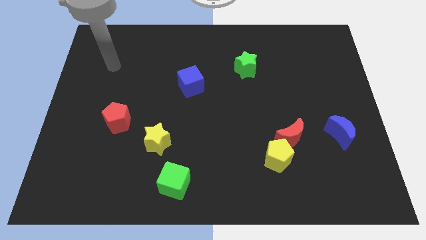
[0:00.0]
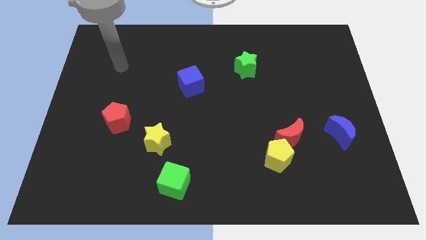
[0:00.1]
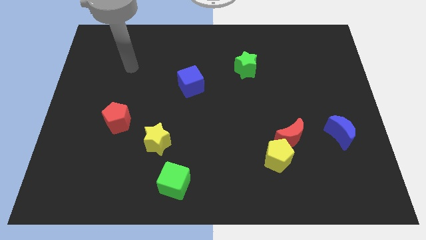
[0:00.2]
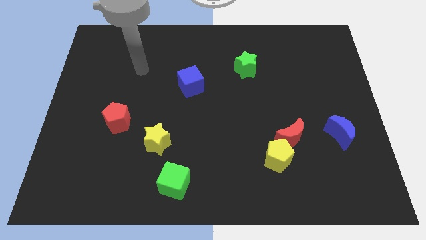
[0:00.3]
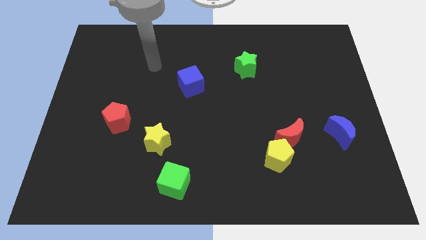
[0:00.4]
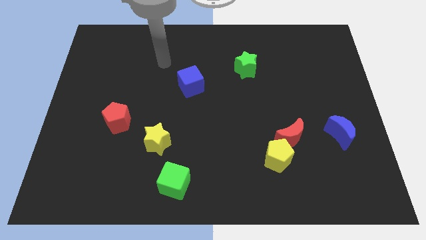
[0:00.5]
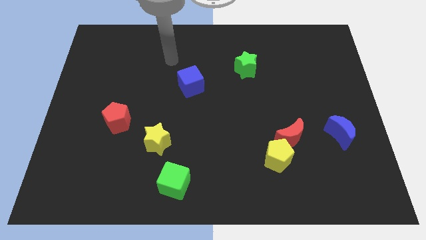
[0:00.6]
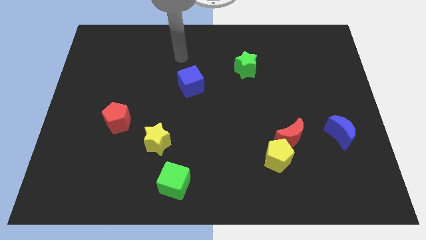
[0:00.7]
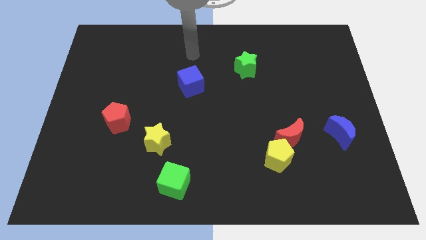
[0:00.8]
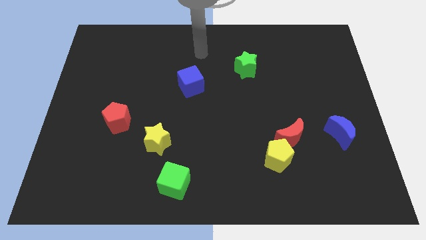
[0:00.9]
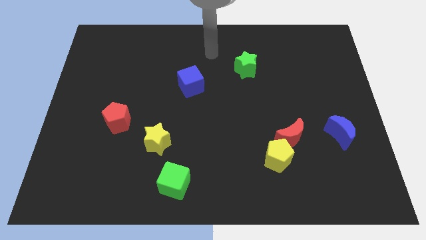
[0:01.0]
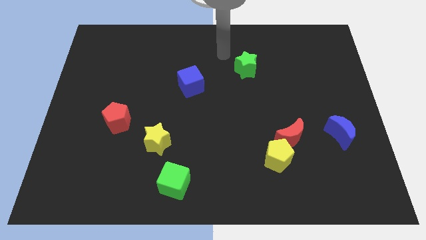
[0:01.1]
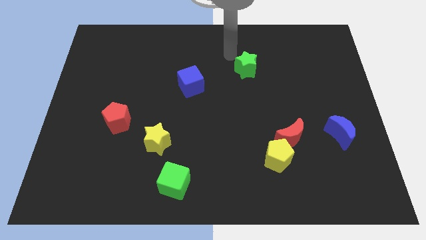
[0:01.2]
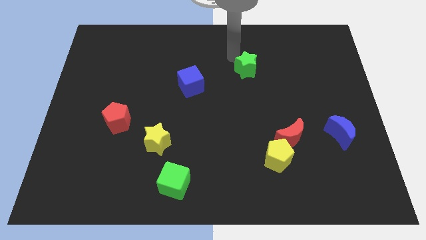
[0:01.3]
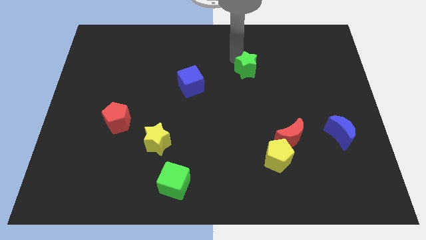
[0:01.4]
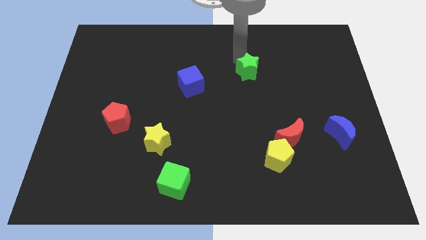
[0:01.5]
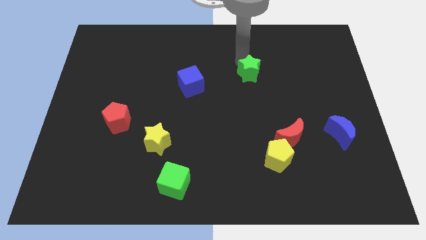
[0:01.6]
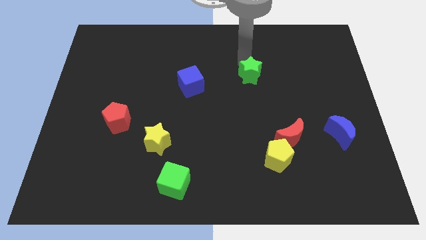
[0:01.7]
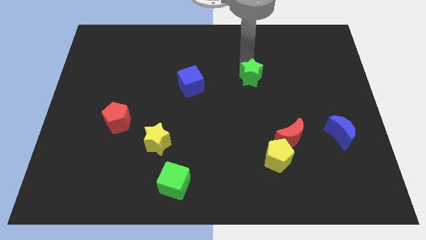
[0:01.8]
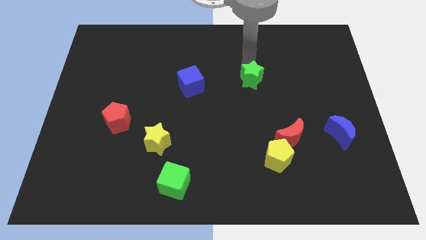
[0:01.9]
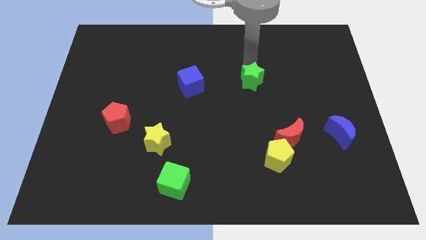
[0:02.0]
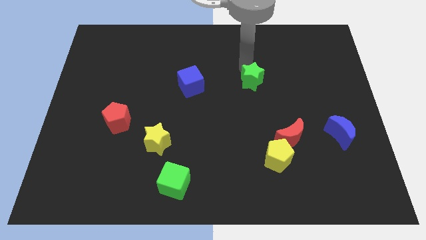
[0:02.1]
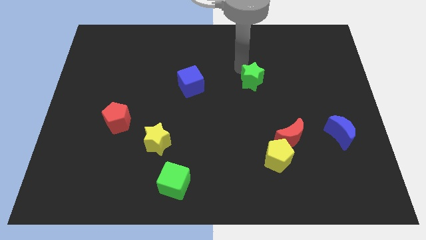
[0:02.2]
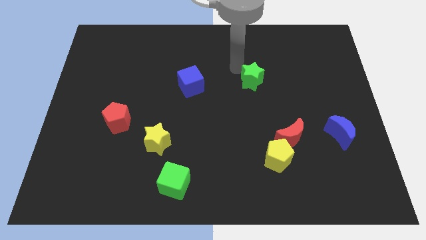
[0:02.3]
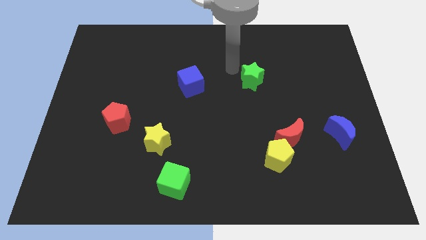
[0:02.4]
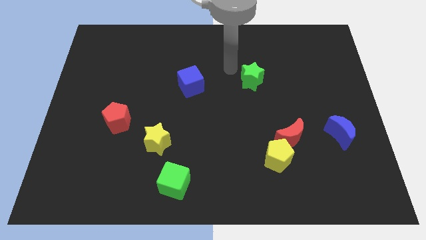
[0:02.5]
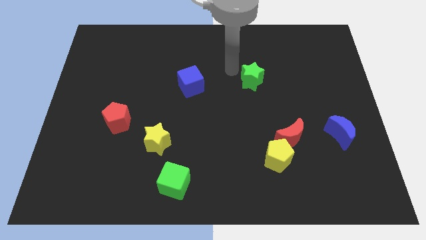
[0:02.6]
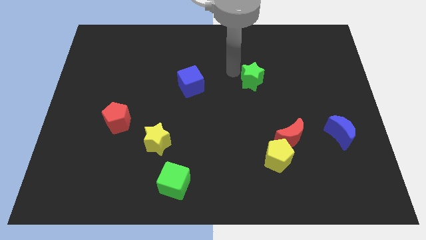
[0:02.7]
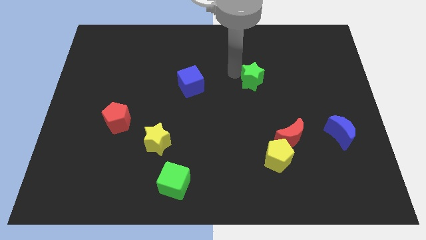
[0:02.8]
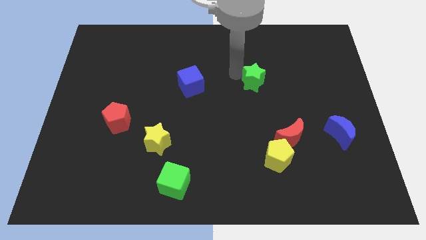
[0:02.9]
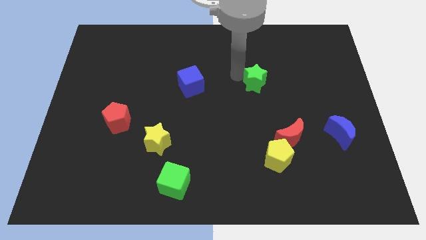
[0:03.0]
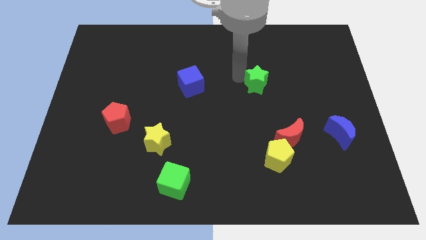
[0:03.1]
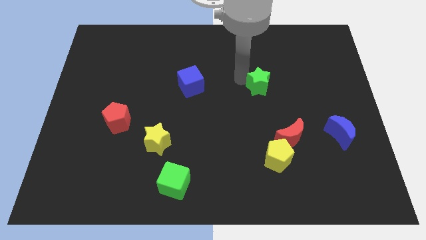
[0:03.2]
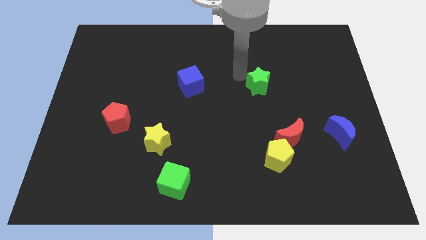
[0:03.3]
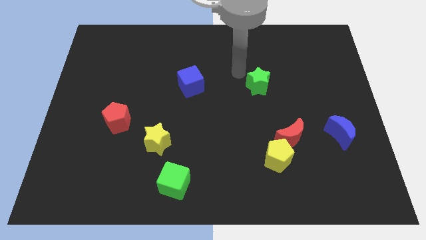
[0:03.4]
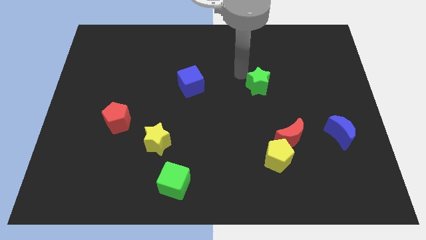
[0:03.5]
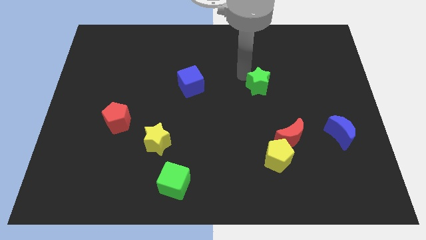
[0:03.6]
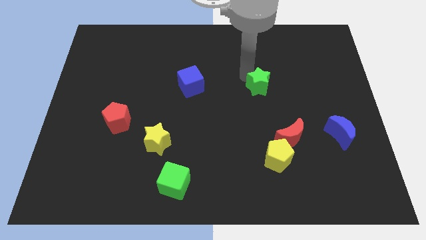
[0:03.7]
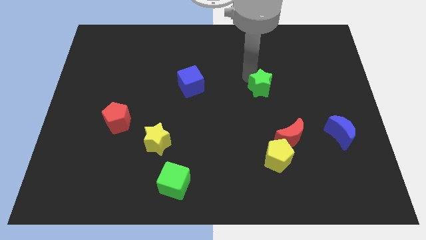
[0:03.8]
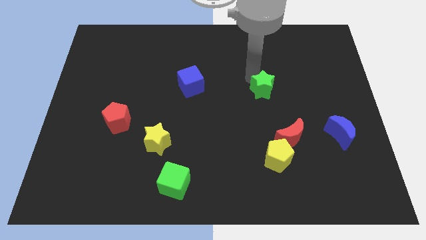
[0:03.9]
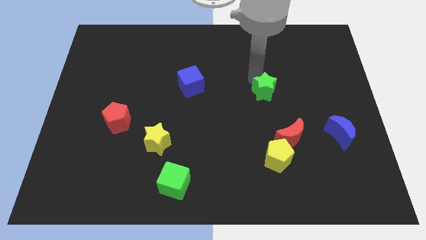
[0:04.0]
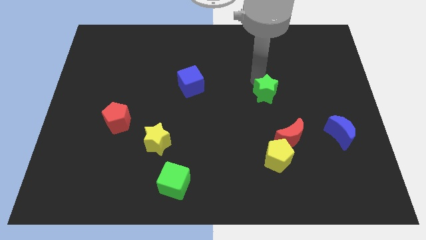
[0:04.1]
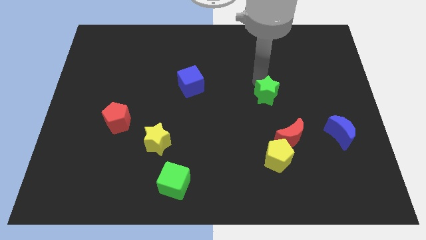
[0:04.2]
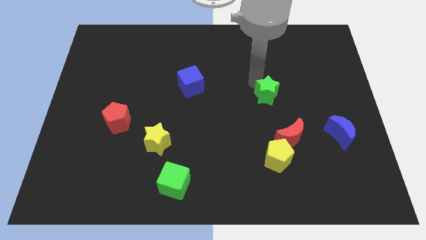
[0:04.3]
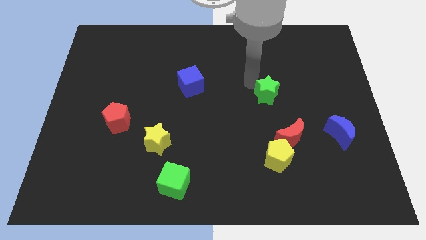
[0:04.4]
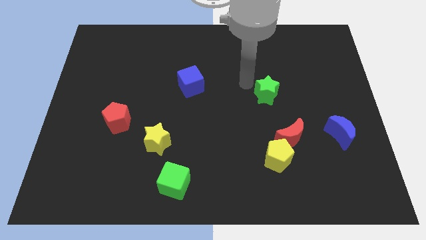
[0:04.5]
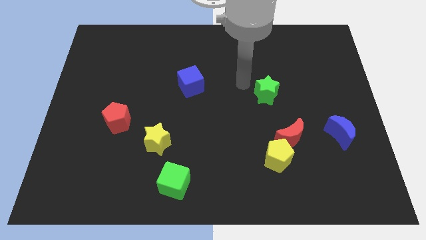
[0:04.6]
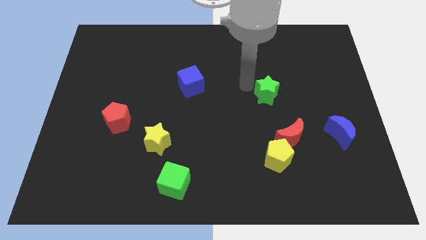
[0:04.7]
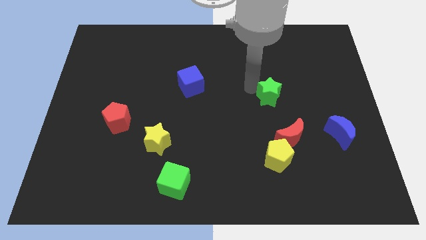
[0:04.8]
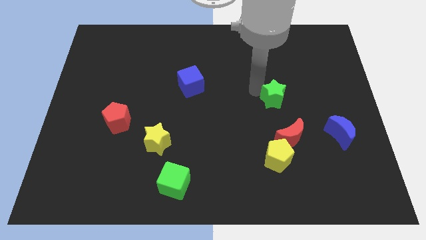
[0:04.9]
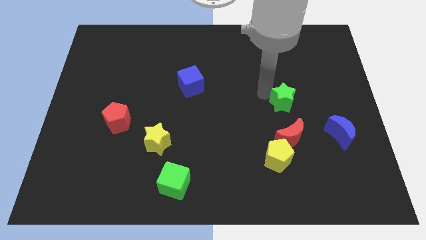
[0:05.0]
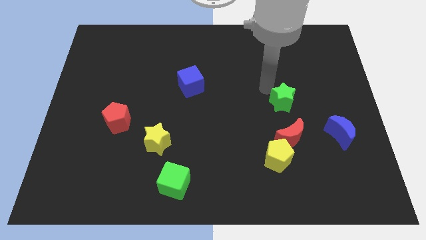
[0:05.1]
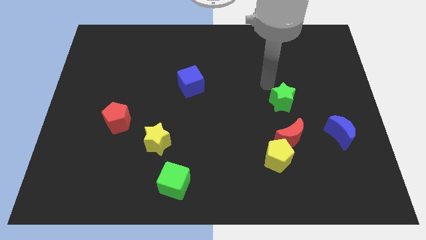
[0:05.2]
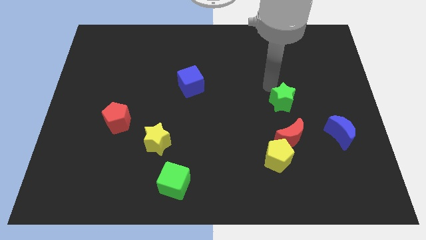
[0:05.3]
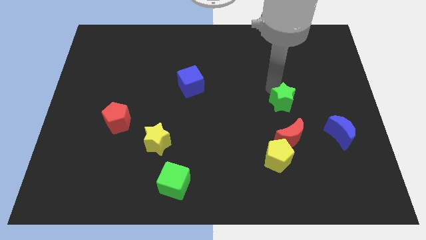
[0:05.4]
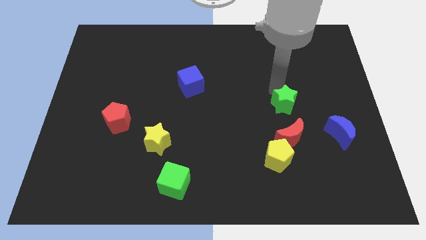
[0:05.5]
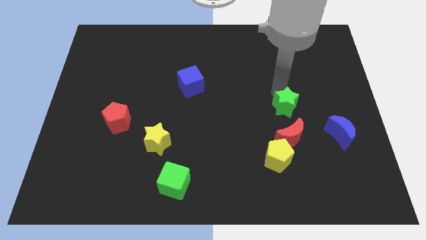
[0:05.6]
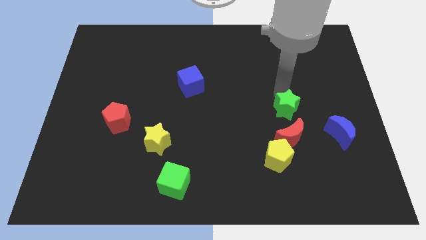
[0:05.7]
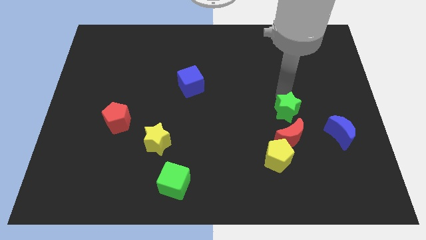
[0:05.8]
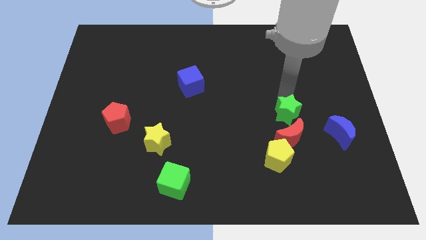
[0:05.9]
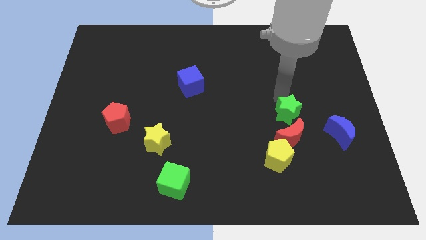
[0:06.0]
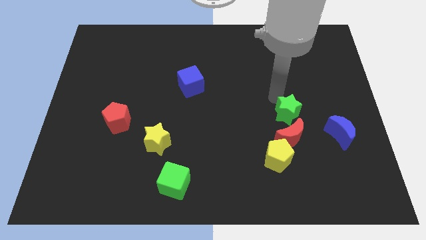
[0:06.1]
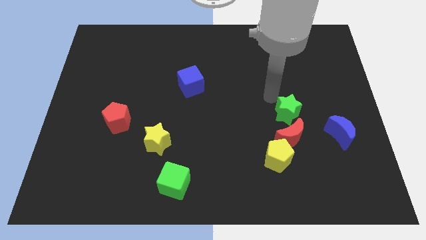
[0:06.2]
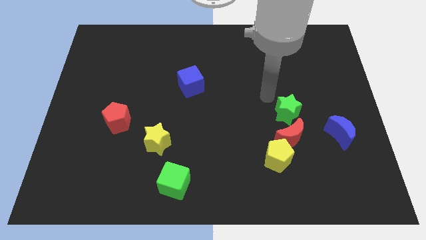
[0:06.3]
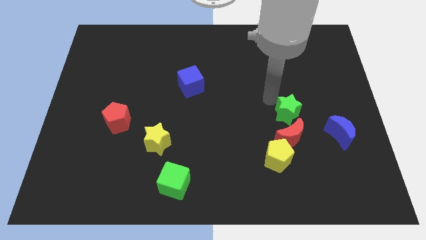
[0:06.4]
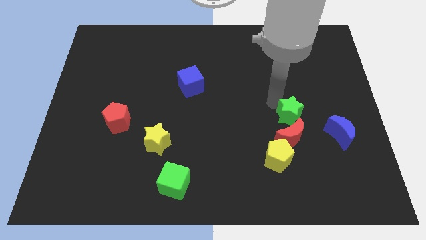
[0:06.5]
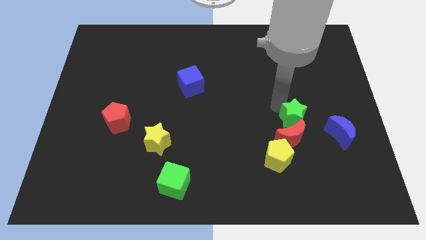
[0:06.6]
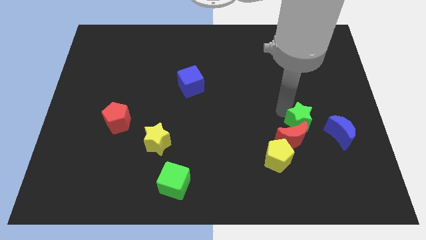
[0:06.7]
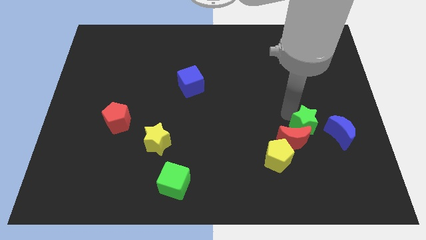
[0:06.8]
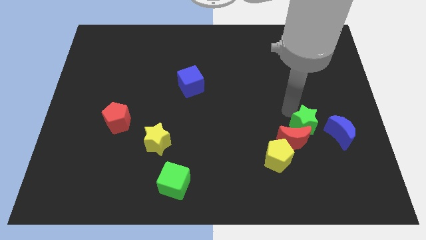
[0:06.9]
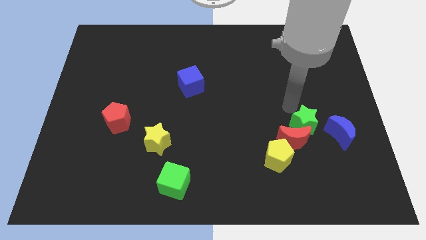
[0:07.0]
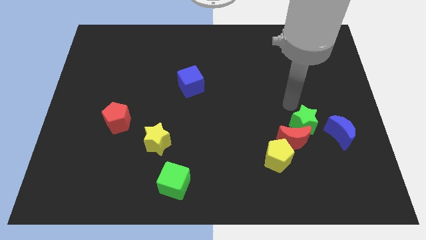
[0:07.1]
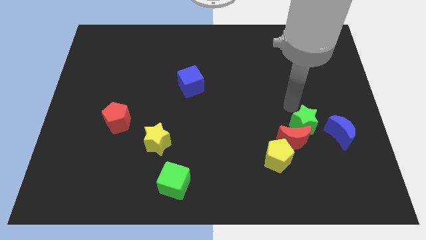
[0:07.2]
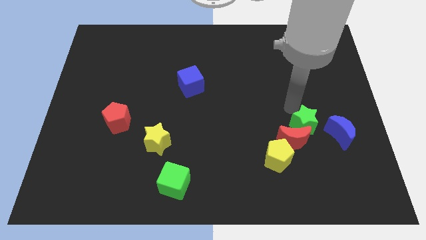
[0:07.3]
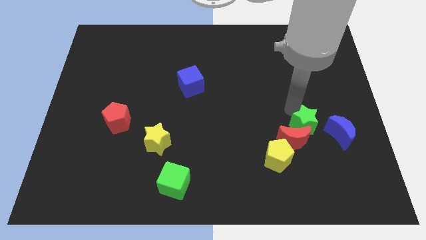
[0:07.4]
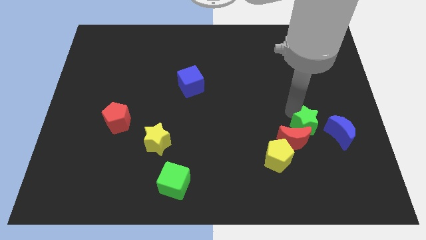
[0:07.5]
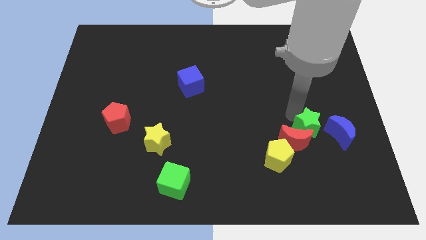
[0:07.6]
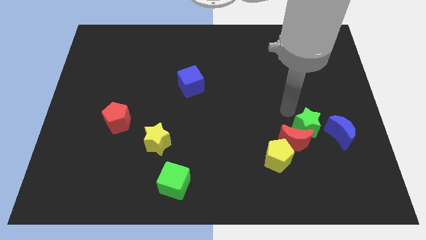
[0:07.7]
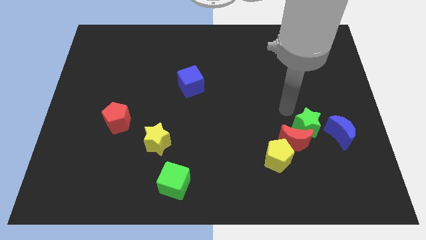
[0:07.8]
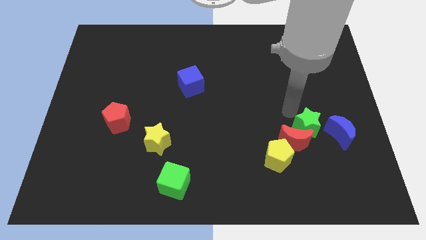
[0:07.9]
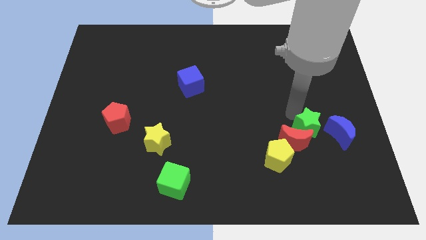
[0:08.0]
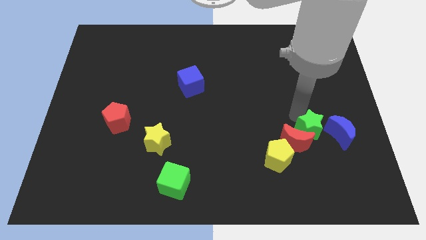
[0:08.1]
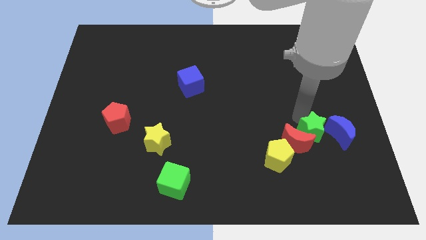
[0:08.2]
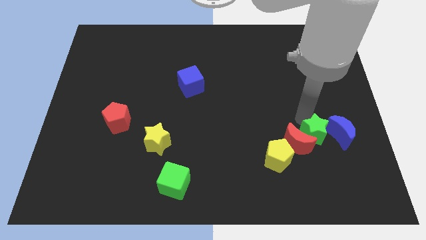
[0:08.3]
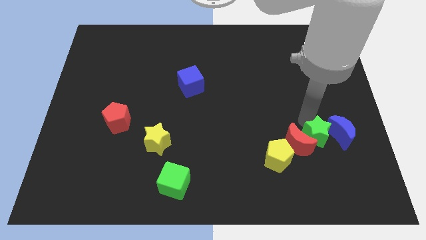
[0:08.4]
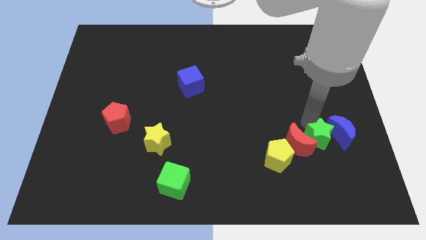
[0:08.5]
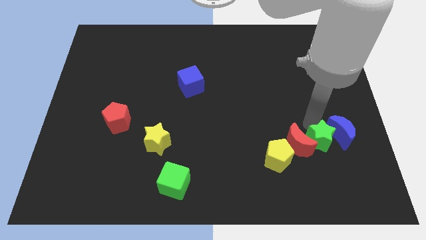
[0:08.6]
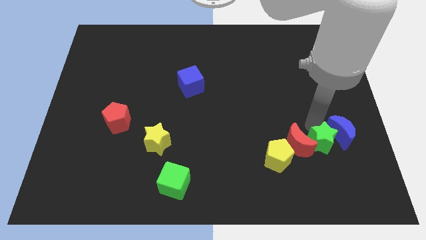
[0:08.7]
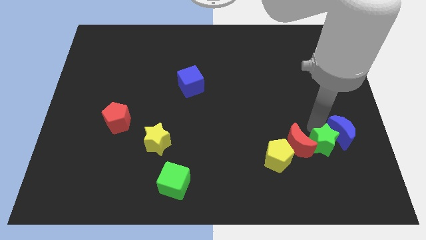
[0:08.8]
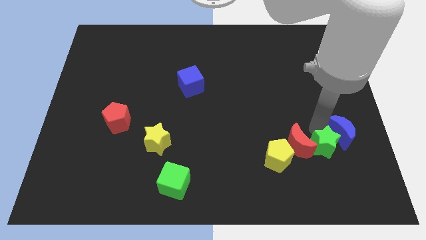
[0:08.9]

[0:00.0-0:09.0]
slide the green star to the bottom side of the blue moon
